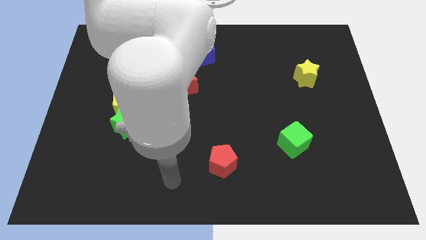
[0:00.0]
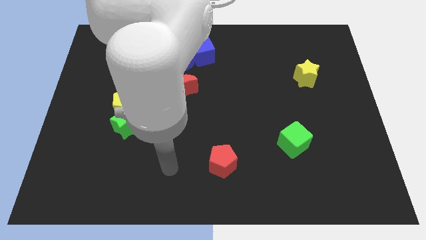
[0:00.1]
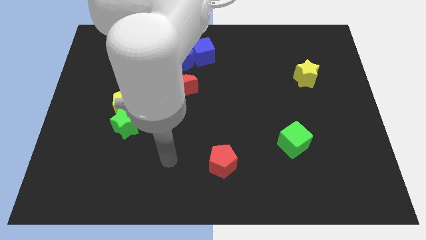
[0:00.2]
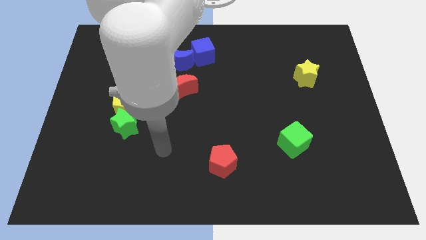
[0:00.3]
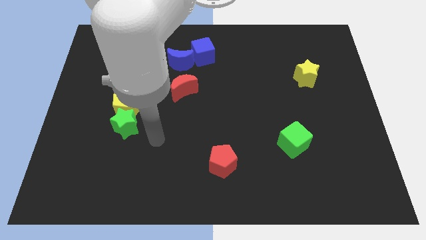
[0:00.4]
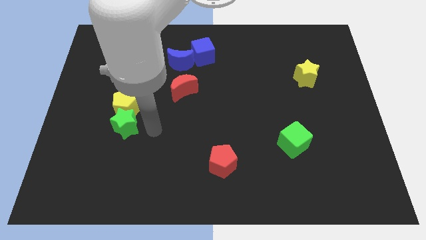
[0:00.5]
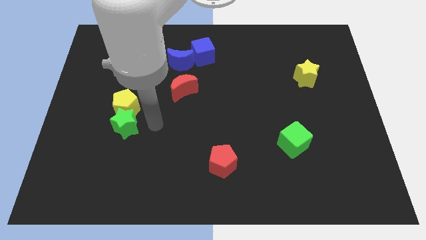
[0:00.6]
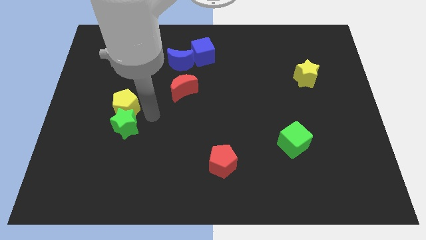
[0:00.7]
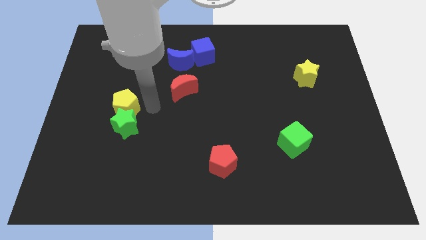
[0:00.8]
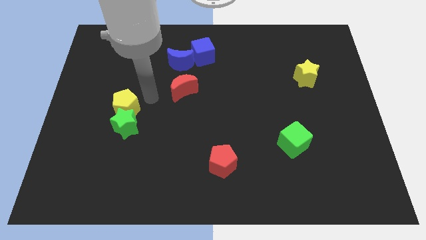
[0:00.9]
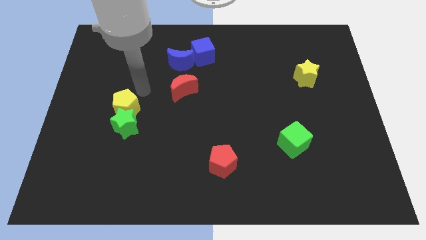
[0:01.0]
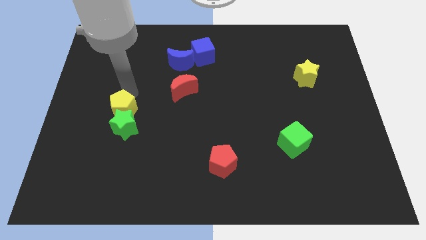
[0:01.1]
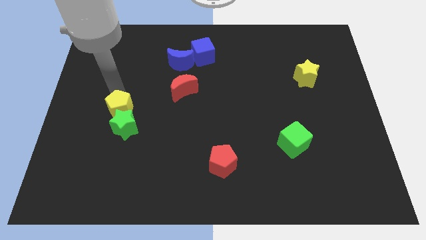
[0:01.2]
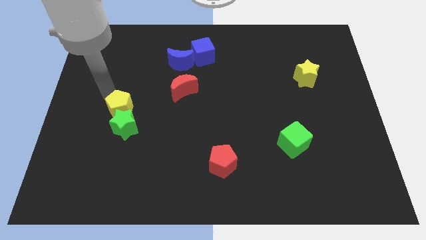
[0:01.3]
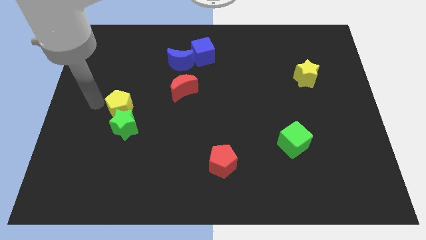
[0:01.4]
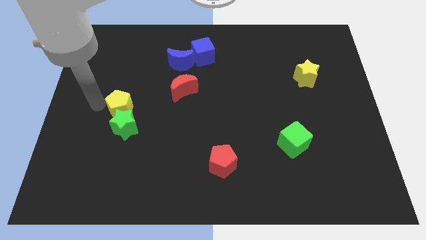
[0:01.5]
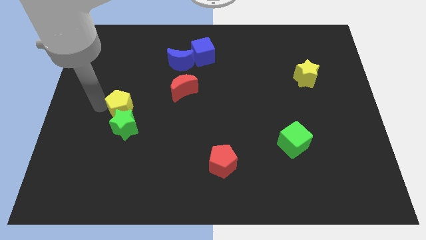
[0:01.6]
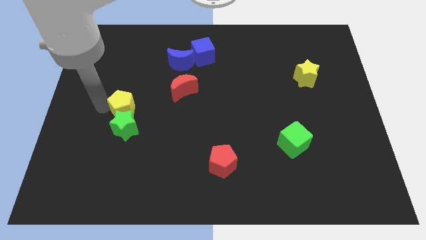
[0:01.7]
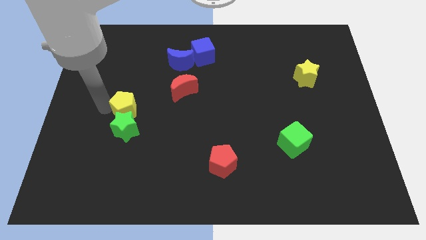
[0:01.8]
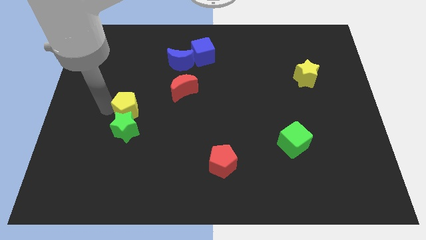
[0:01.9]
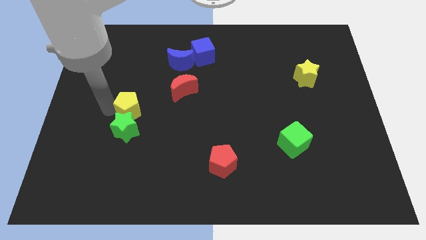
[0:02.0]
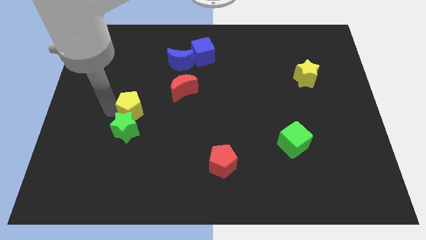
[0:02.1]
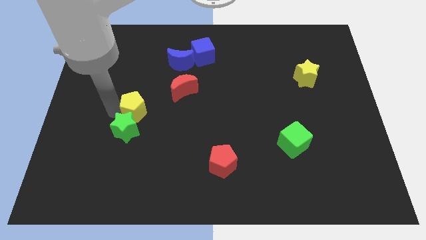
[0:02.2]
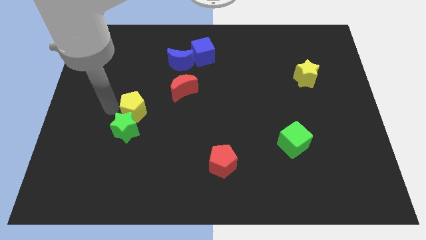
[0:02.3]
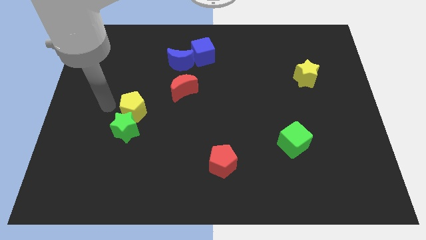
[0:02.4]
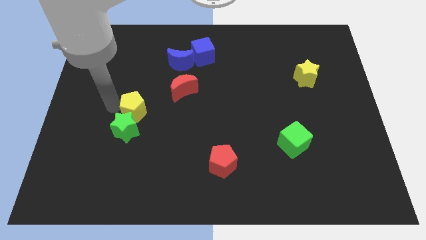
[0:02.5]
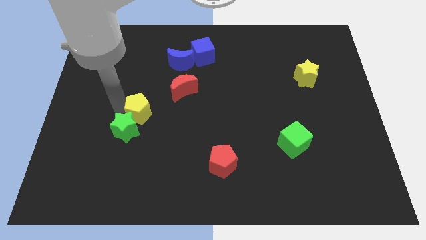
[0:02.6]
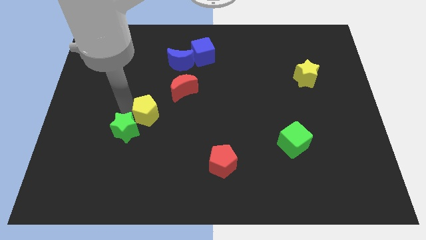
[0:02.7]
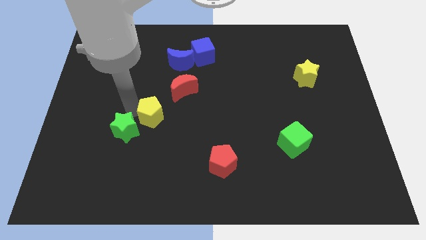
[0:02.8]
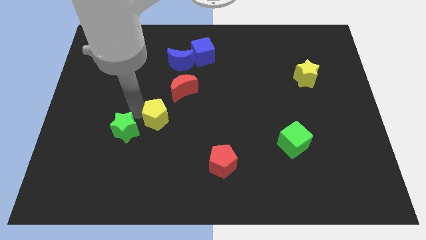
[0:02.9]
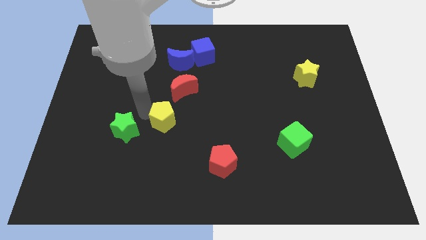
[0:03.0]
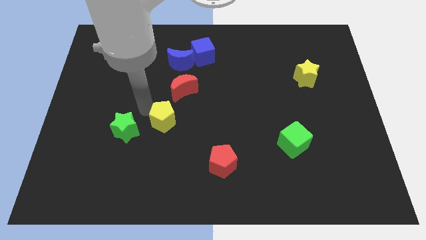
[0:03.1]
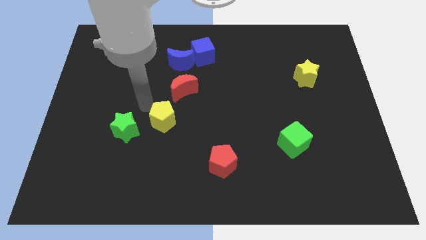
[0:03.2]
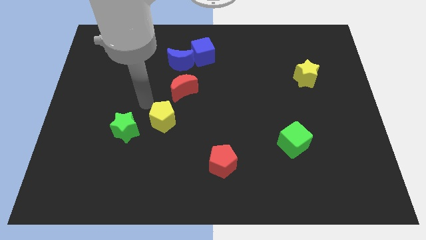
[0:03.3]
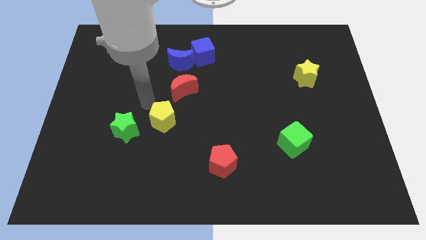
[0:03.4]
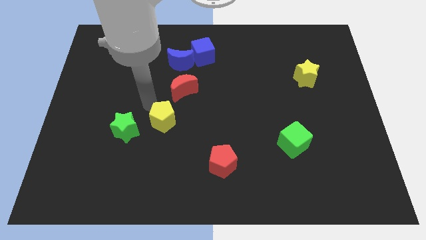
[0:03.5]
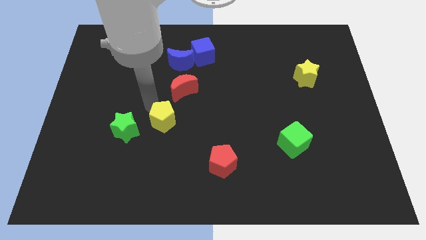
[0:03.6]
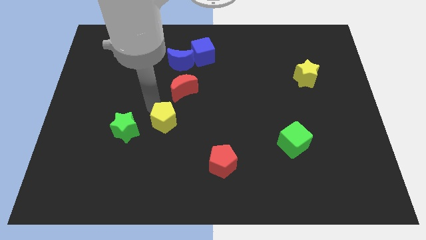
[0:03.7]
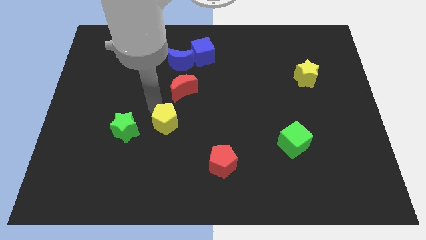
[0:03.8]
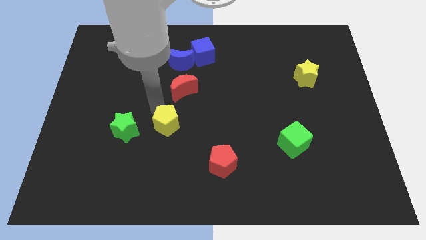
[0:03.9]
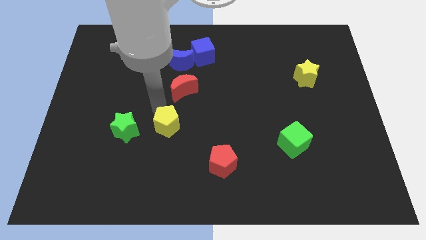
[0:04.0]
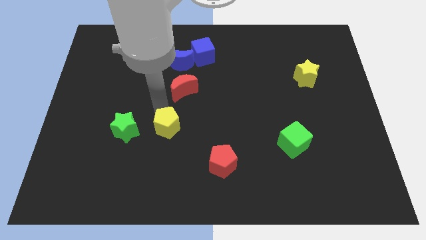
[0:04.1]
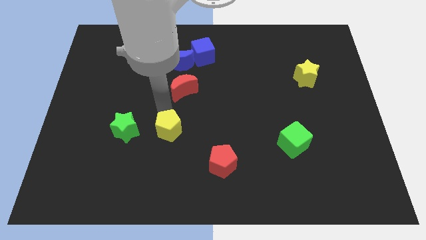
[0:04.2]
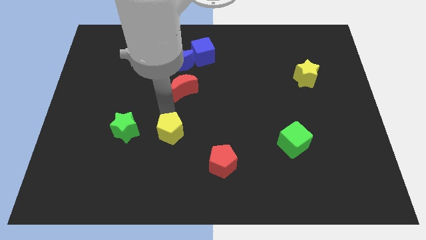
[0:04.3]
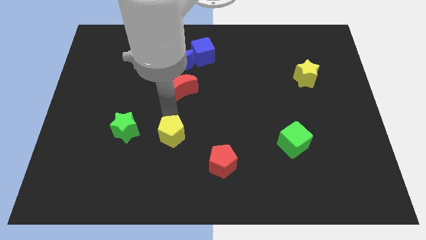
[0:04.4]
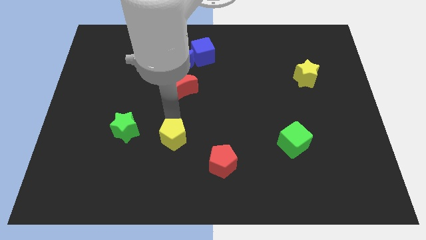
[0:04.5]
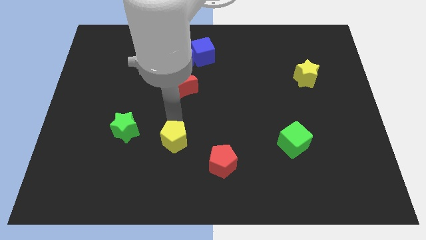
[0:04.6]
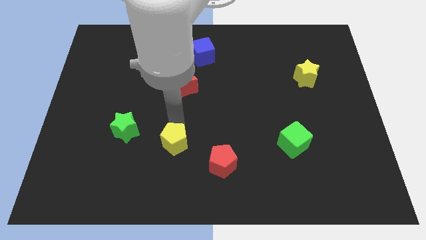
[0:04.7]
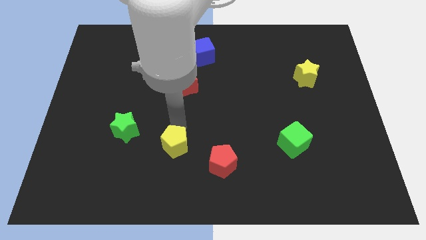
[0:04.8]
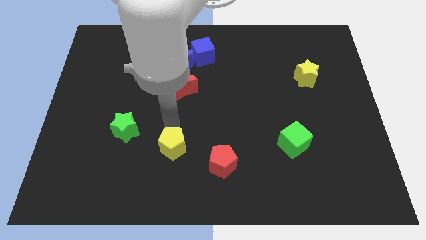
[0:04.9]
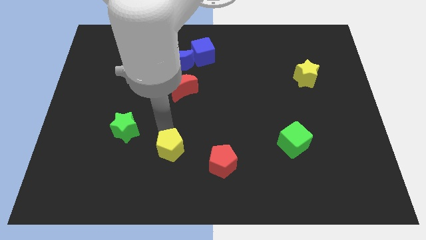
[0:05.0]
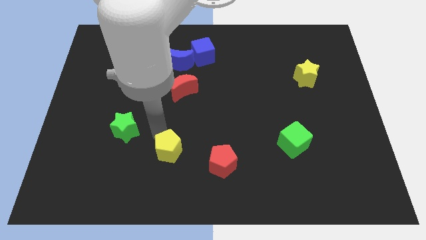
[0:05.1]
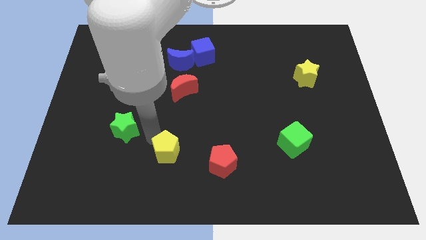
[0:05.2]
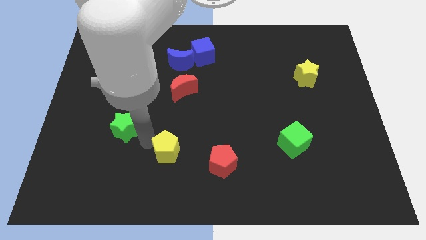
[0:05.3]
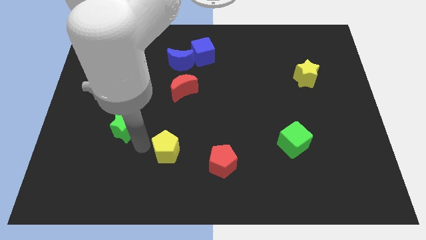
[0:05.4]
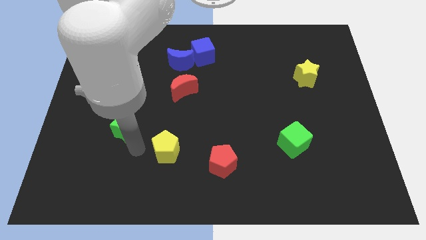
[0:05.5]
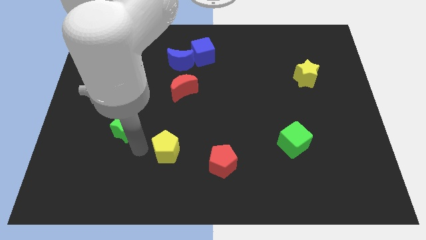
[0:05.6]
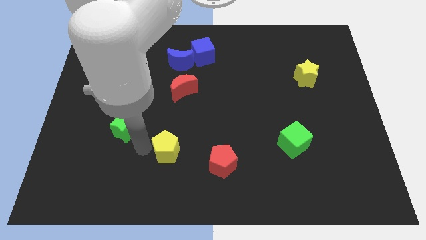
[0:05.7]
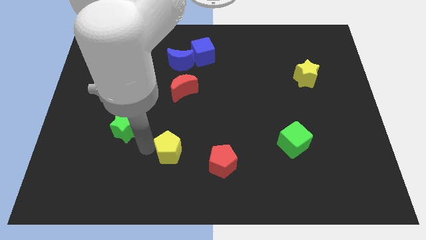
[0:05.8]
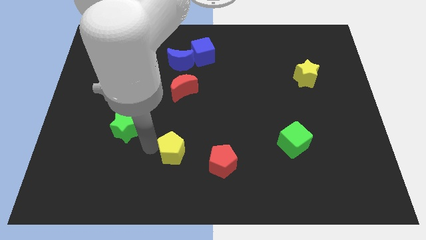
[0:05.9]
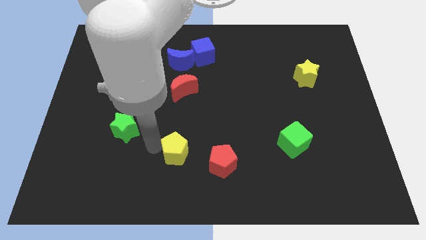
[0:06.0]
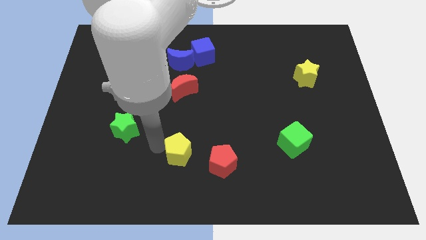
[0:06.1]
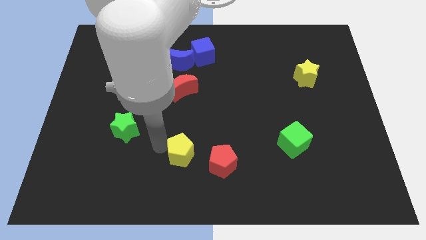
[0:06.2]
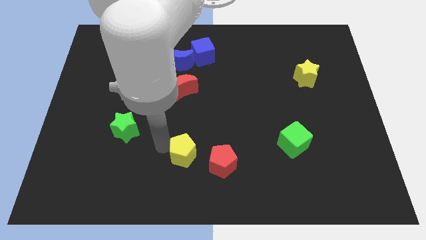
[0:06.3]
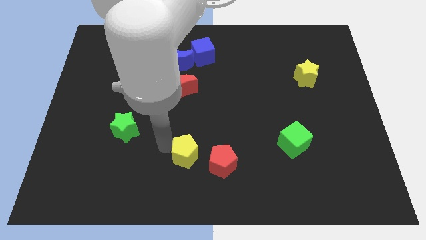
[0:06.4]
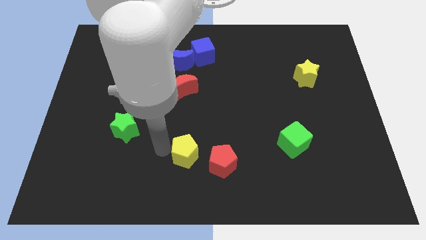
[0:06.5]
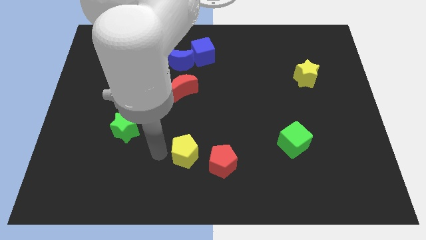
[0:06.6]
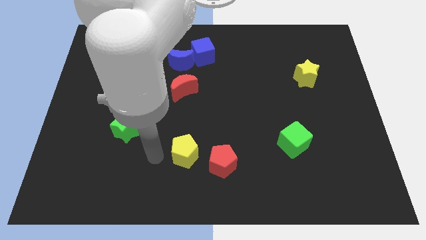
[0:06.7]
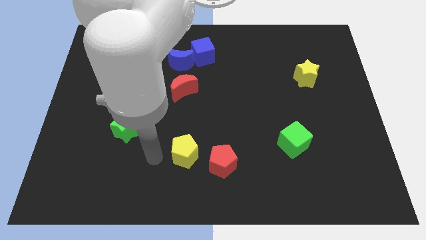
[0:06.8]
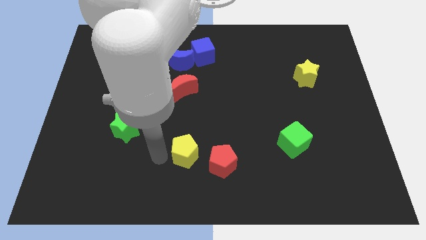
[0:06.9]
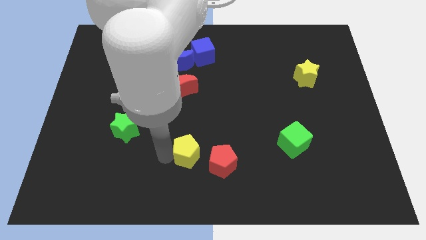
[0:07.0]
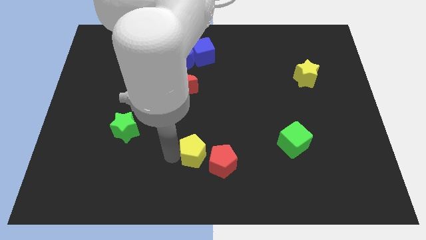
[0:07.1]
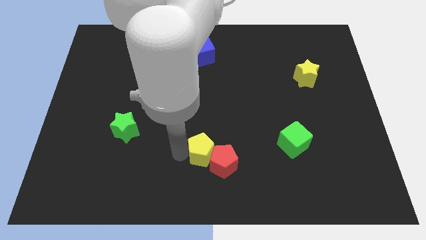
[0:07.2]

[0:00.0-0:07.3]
push the yellow pentagon next to the red pentagon

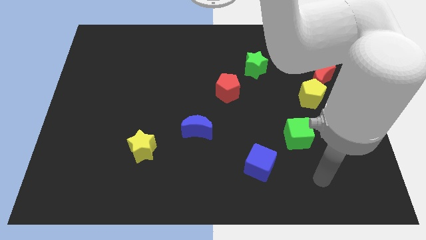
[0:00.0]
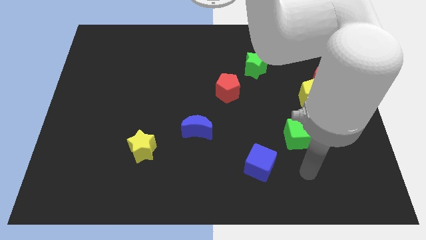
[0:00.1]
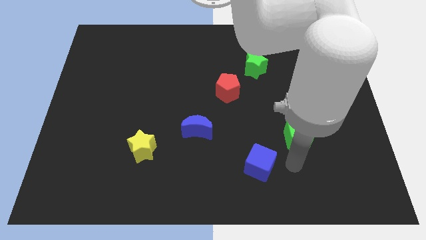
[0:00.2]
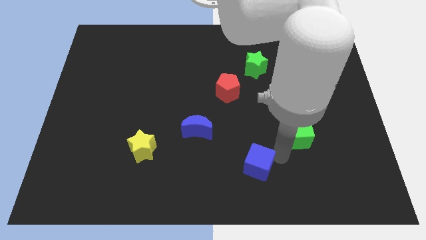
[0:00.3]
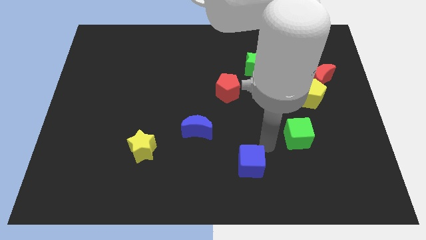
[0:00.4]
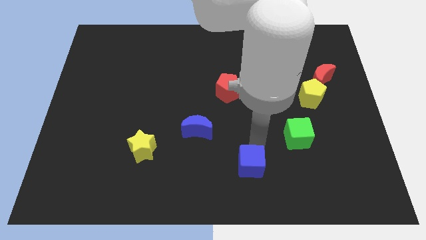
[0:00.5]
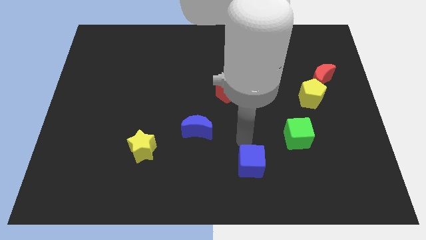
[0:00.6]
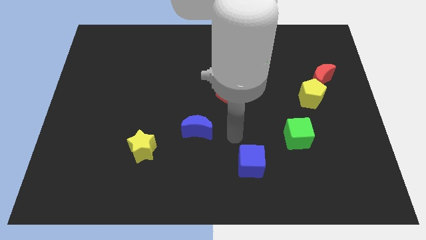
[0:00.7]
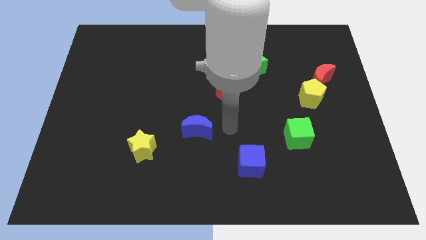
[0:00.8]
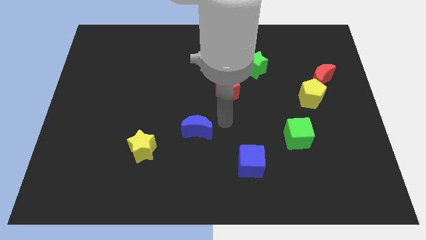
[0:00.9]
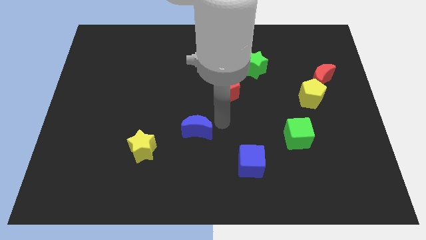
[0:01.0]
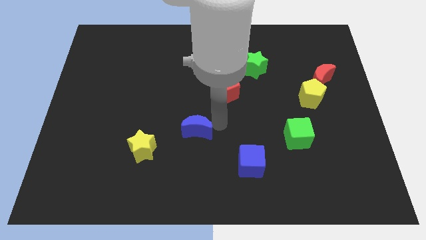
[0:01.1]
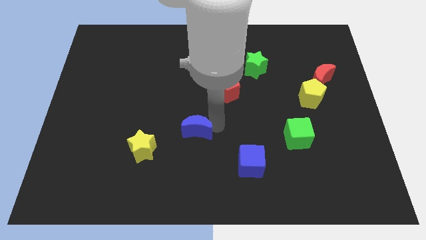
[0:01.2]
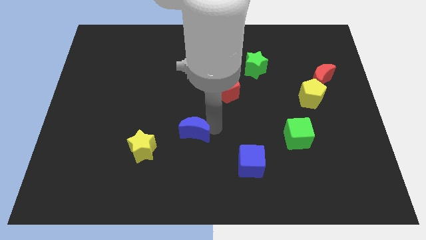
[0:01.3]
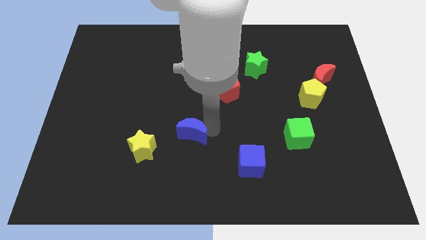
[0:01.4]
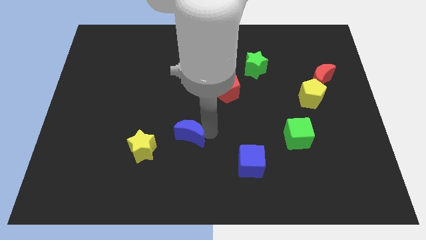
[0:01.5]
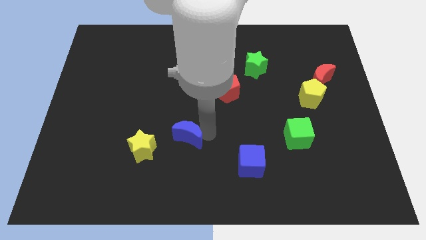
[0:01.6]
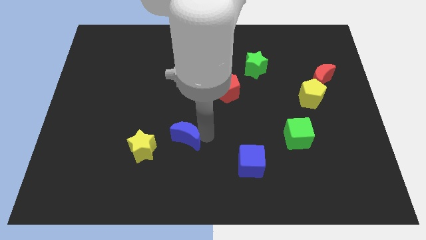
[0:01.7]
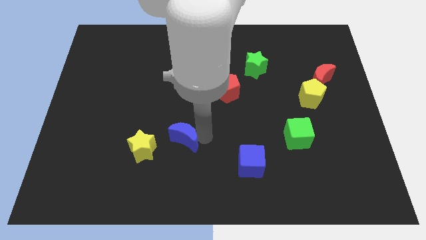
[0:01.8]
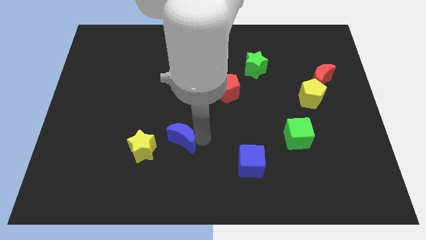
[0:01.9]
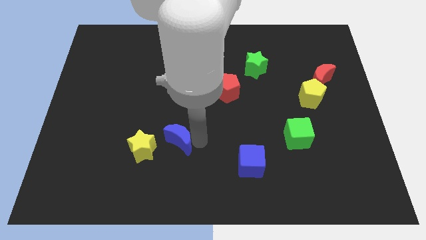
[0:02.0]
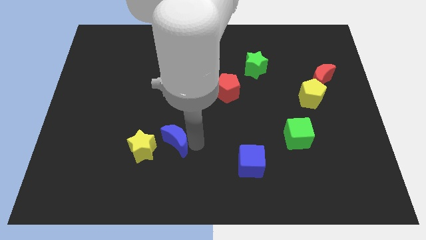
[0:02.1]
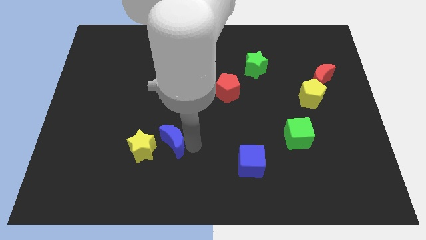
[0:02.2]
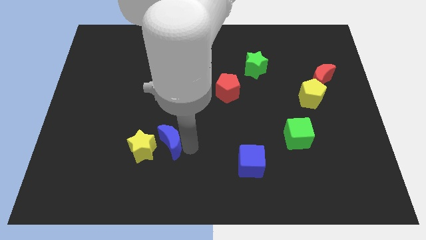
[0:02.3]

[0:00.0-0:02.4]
slide the blue moon towards the yellow star
